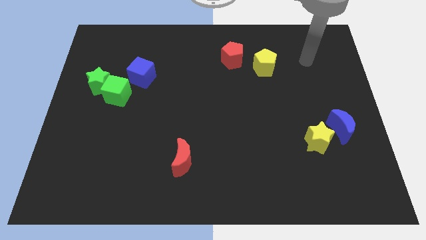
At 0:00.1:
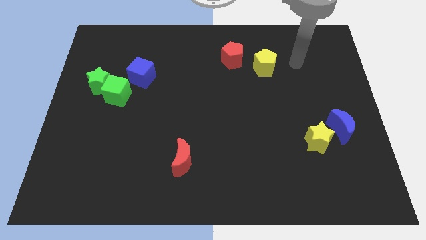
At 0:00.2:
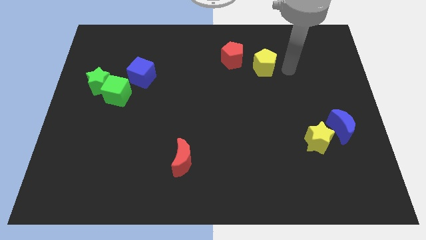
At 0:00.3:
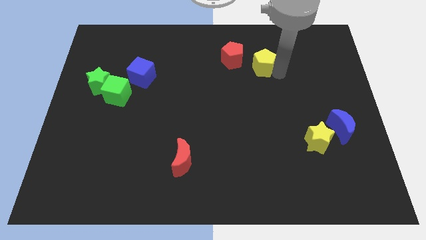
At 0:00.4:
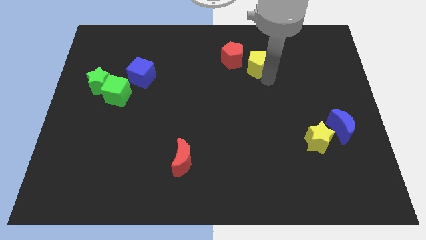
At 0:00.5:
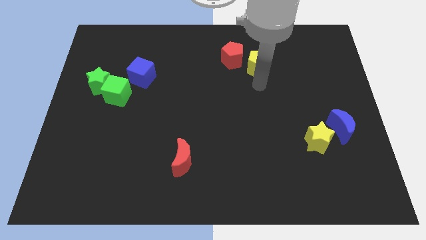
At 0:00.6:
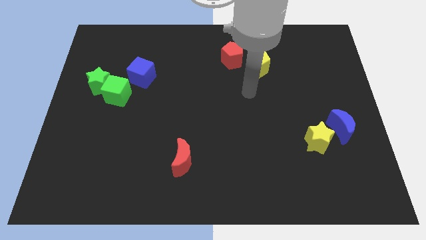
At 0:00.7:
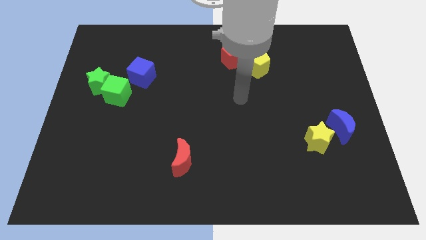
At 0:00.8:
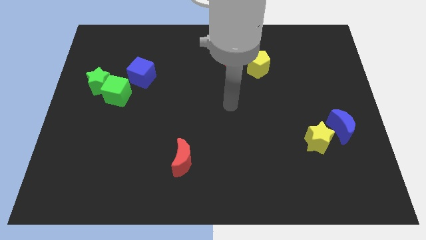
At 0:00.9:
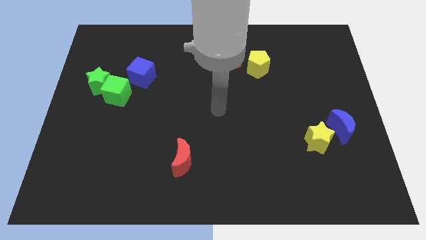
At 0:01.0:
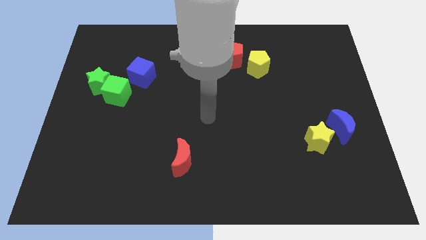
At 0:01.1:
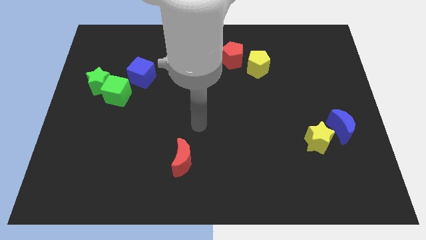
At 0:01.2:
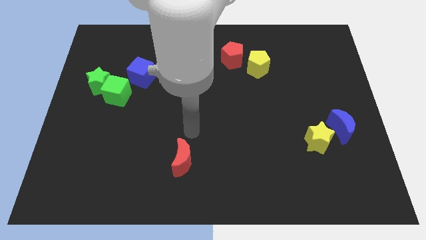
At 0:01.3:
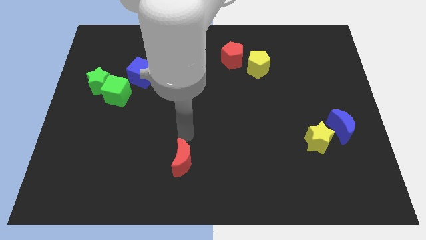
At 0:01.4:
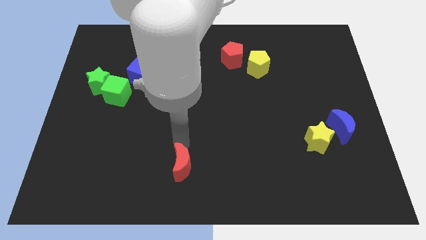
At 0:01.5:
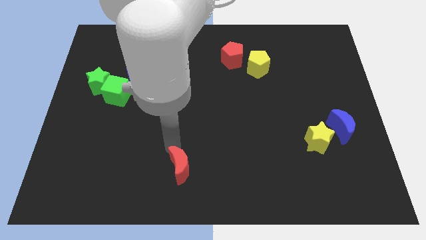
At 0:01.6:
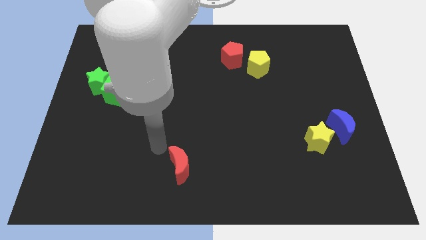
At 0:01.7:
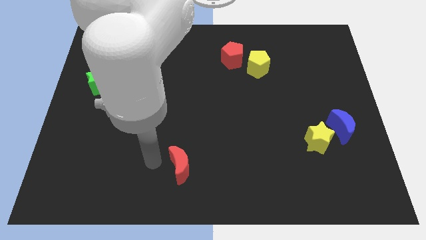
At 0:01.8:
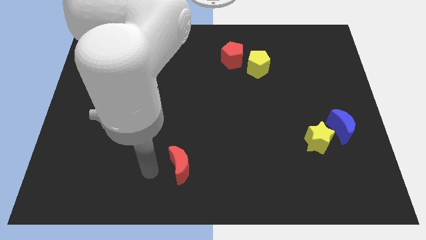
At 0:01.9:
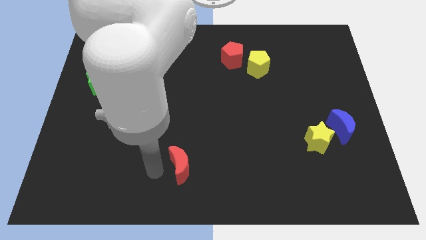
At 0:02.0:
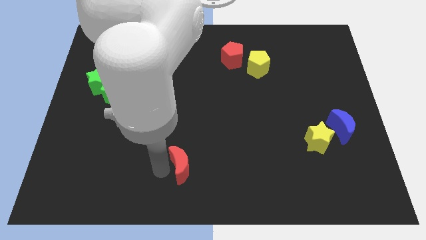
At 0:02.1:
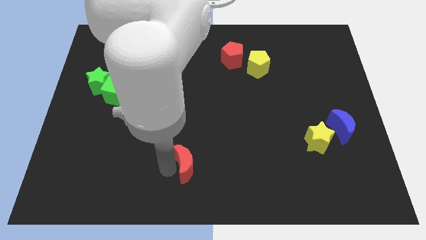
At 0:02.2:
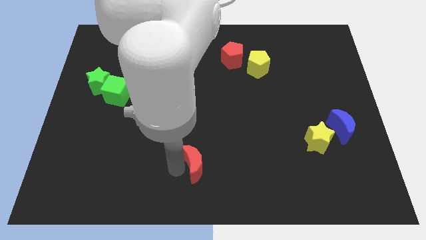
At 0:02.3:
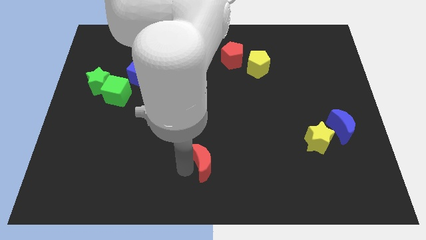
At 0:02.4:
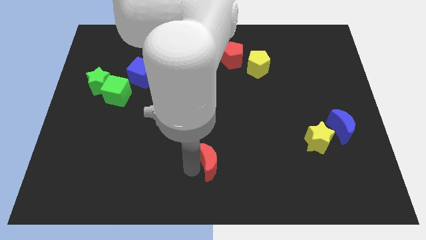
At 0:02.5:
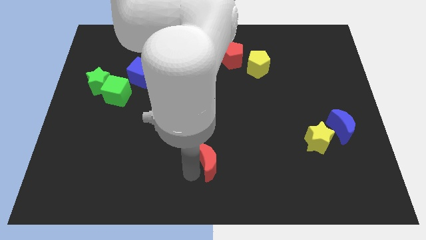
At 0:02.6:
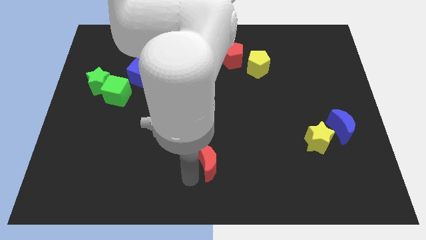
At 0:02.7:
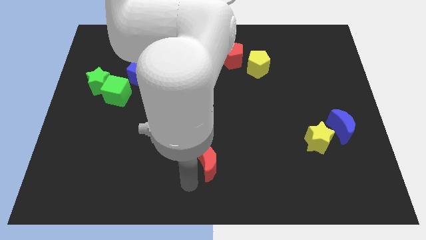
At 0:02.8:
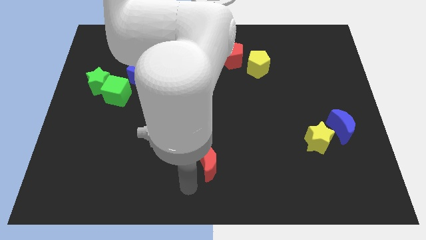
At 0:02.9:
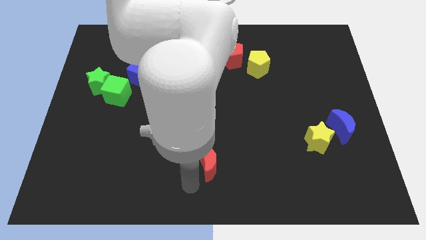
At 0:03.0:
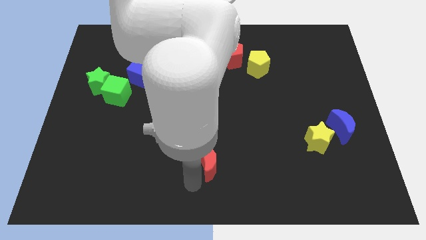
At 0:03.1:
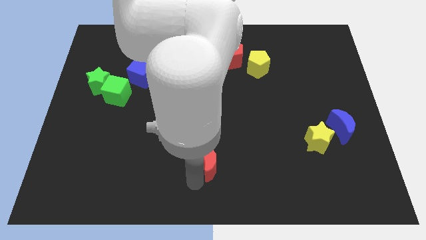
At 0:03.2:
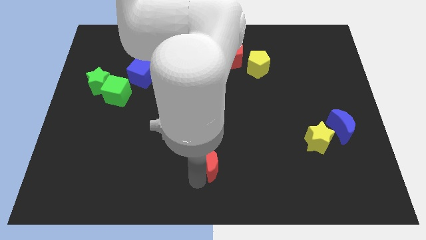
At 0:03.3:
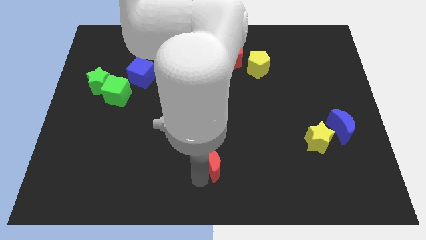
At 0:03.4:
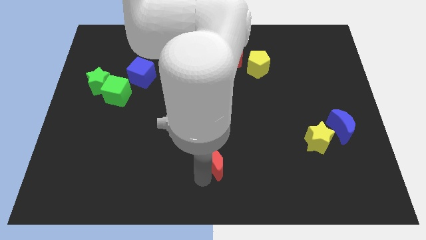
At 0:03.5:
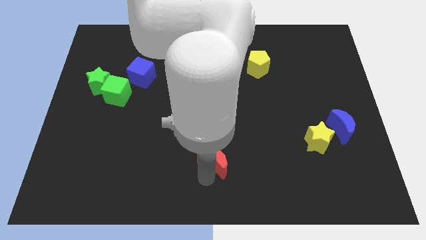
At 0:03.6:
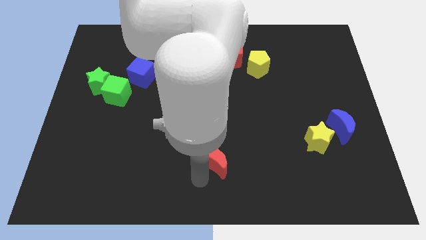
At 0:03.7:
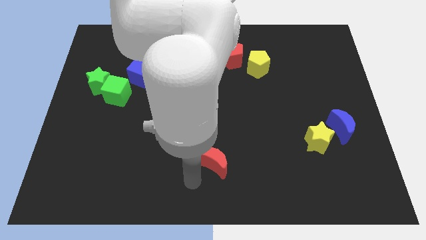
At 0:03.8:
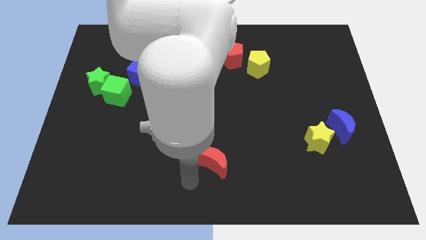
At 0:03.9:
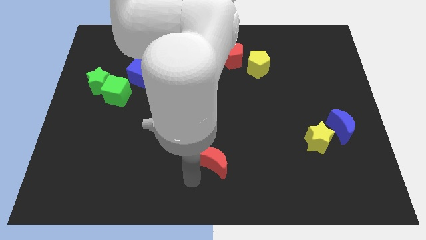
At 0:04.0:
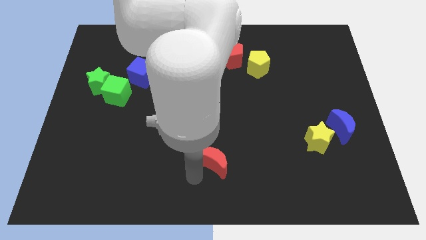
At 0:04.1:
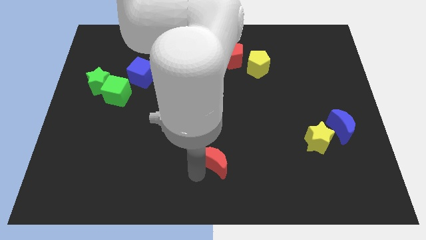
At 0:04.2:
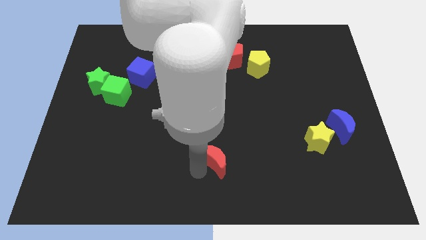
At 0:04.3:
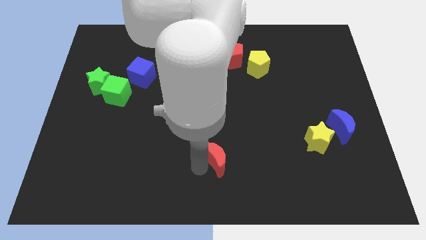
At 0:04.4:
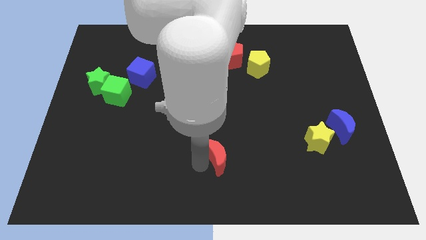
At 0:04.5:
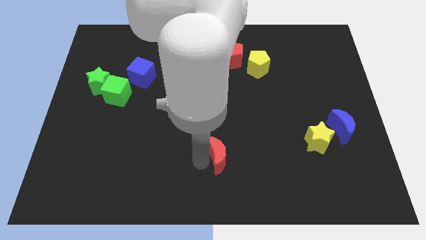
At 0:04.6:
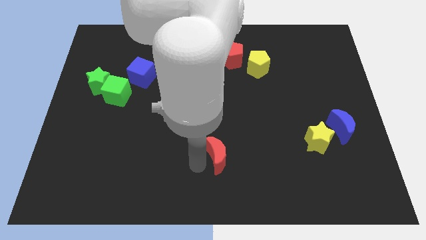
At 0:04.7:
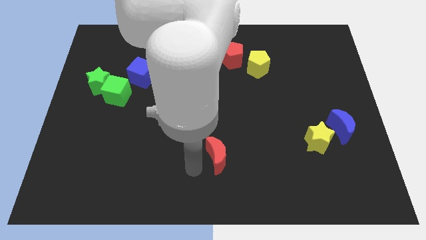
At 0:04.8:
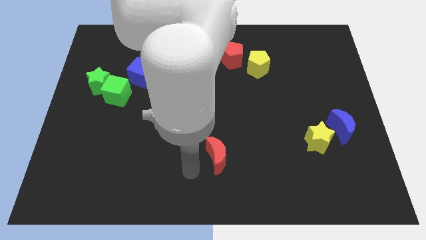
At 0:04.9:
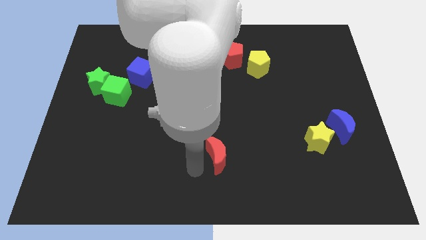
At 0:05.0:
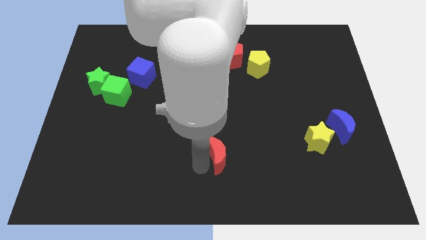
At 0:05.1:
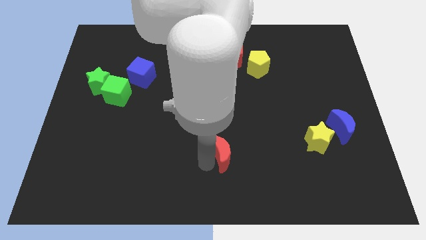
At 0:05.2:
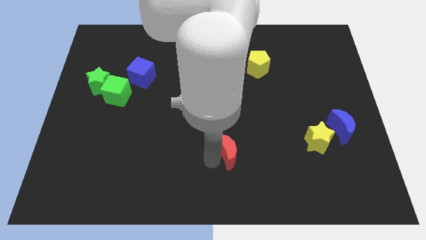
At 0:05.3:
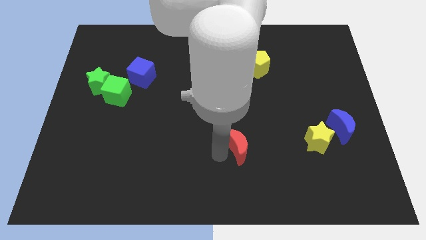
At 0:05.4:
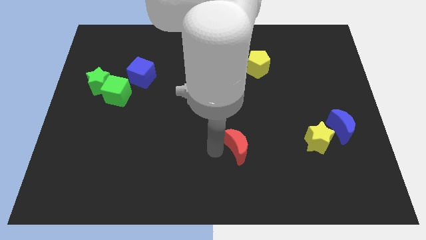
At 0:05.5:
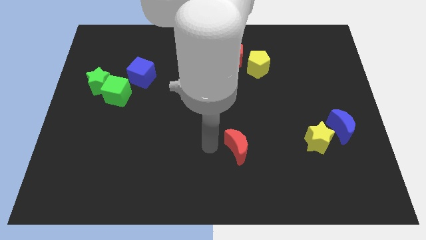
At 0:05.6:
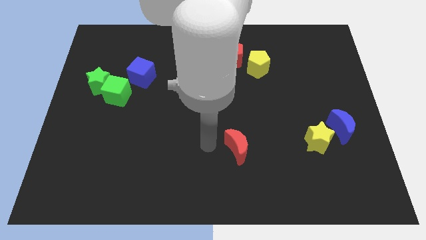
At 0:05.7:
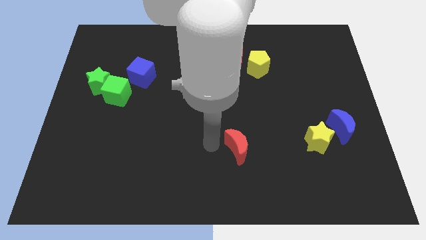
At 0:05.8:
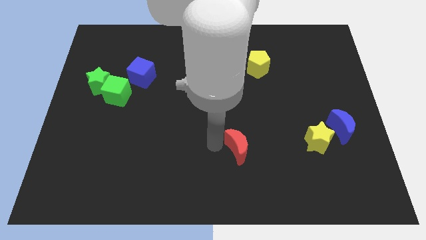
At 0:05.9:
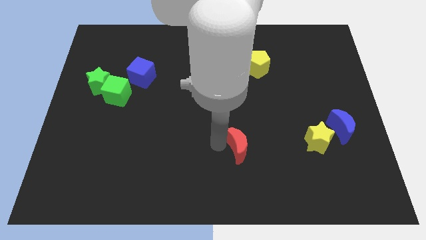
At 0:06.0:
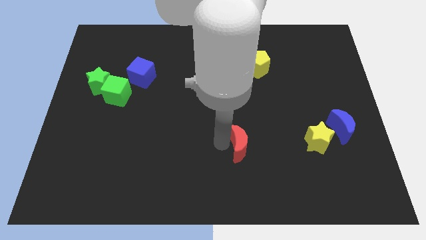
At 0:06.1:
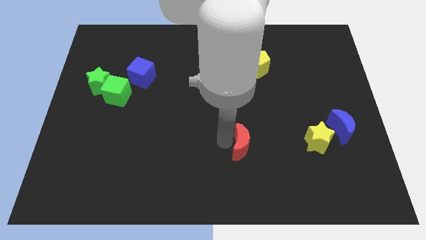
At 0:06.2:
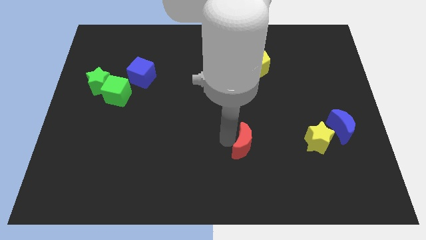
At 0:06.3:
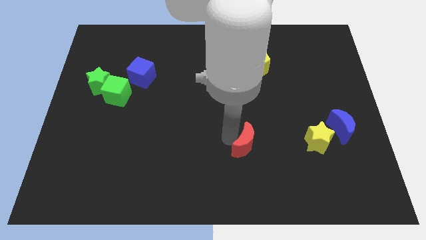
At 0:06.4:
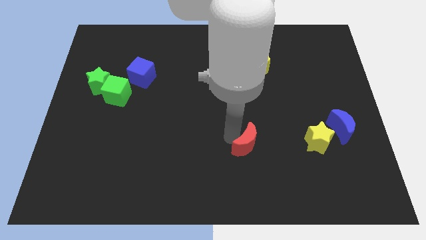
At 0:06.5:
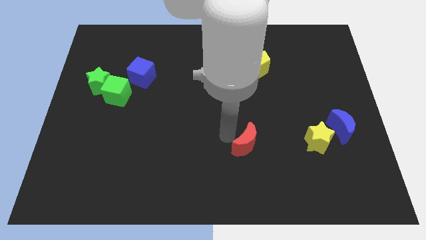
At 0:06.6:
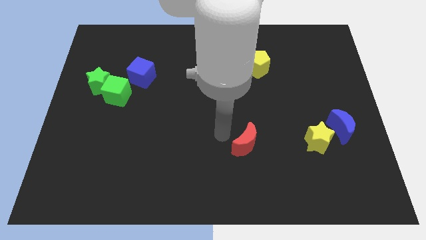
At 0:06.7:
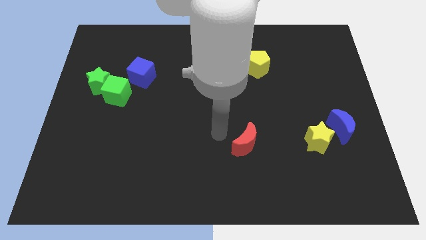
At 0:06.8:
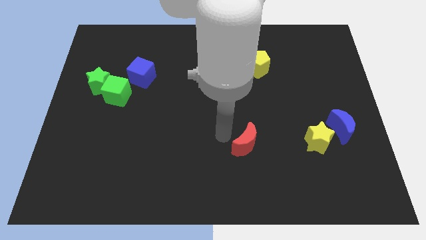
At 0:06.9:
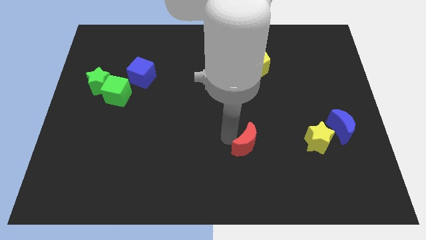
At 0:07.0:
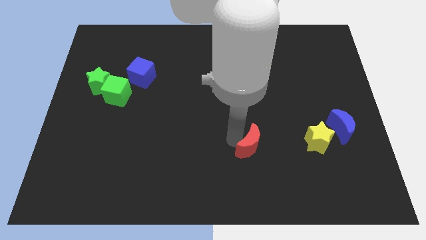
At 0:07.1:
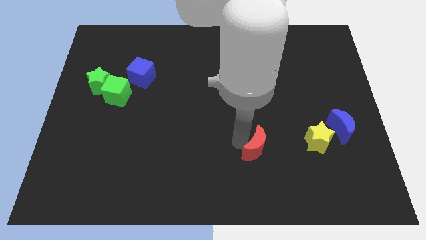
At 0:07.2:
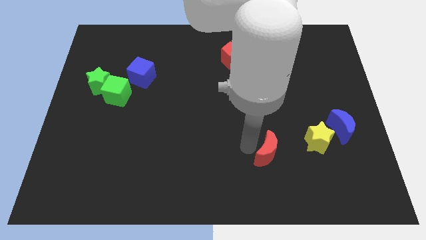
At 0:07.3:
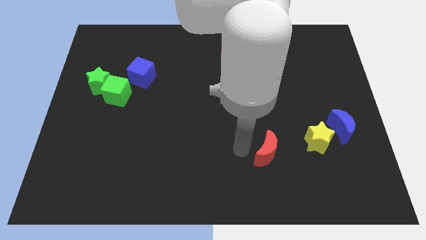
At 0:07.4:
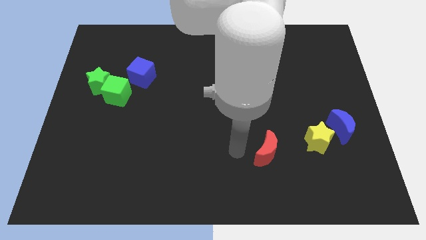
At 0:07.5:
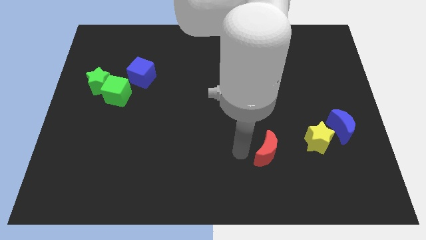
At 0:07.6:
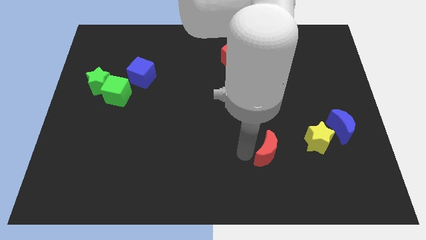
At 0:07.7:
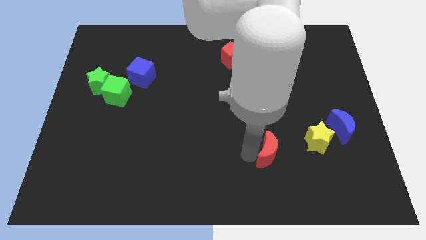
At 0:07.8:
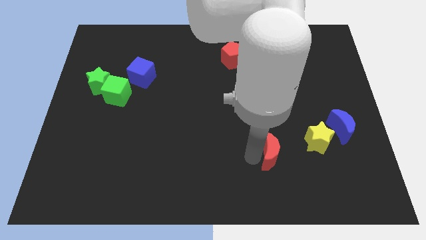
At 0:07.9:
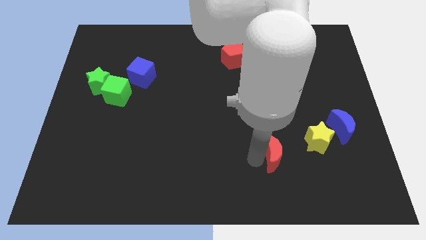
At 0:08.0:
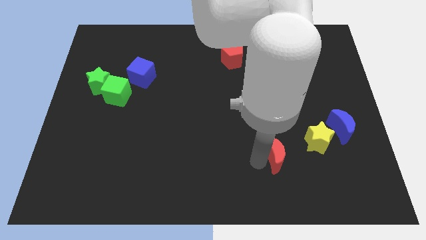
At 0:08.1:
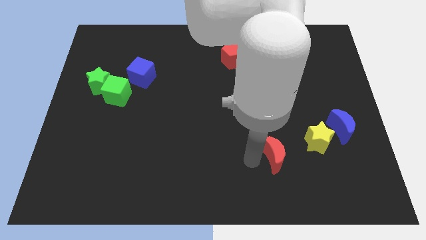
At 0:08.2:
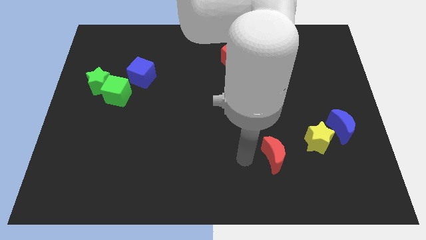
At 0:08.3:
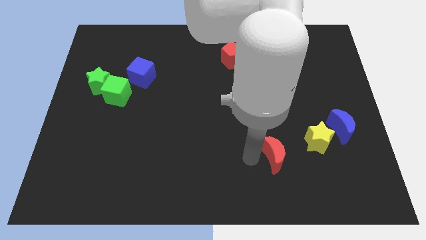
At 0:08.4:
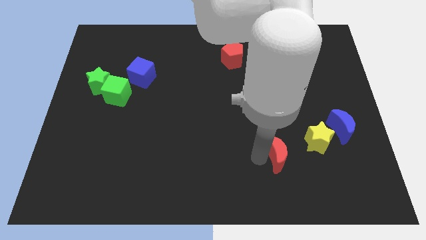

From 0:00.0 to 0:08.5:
move the red moon right
